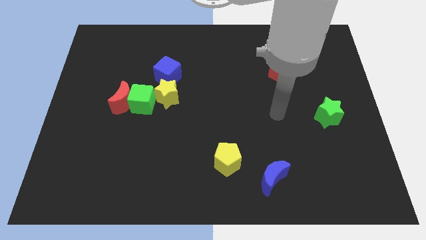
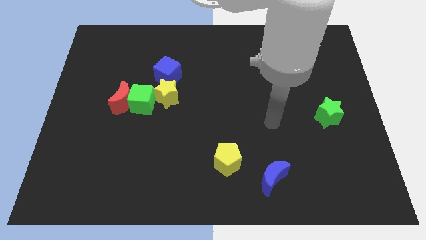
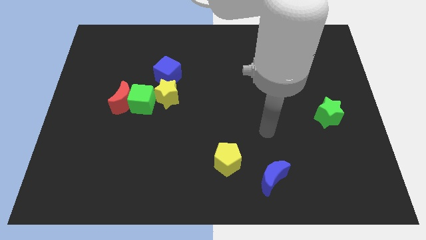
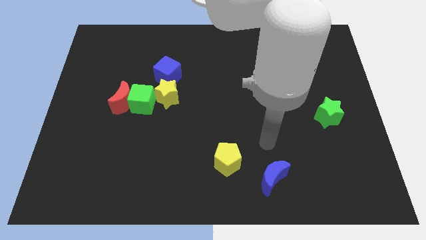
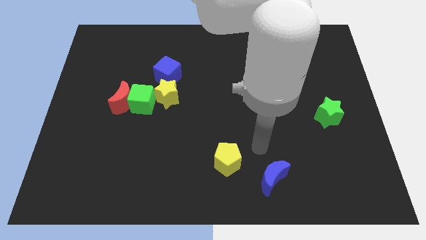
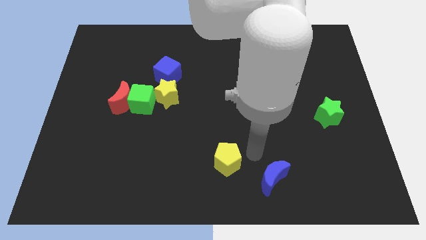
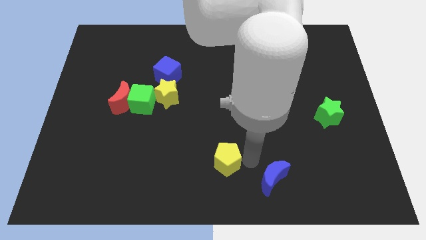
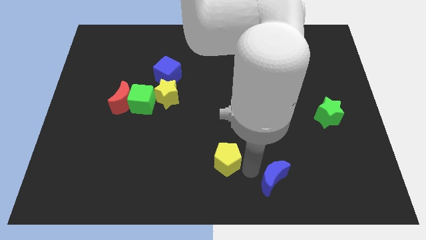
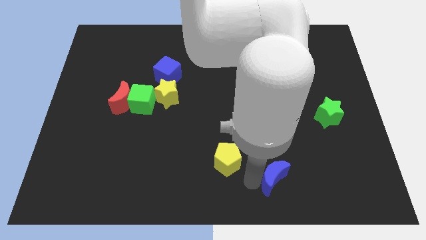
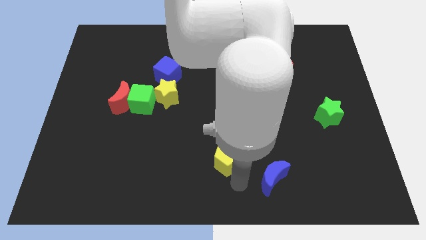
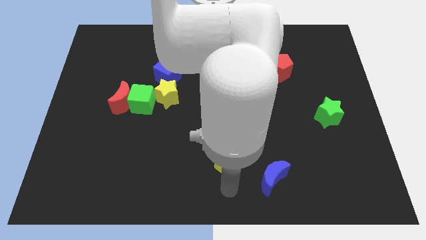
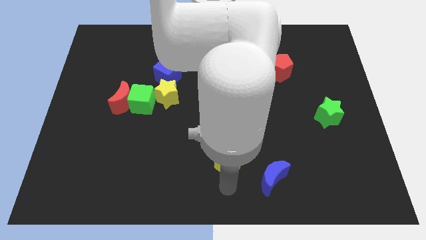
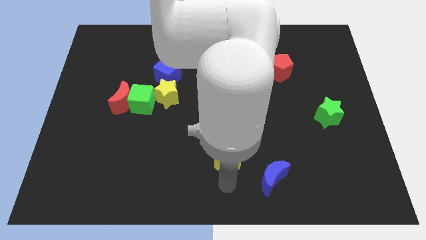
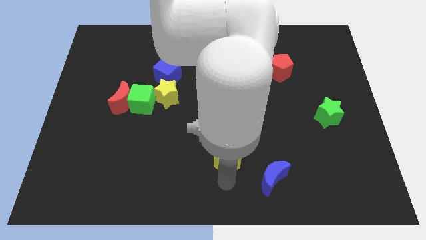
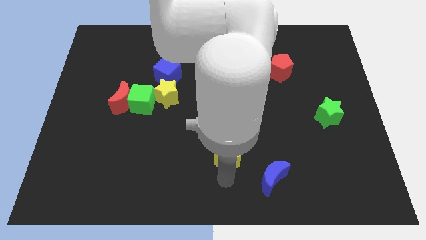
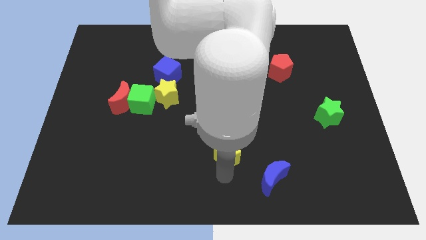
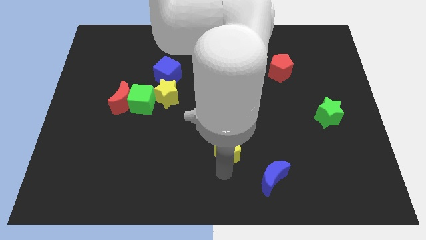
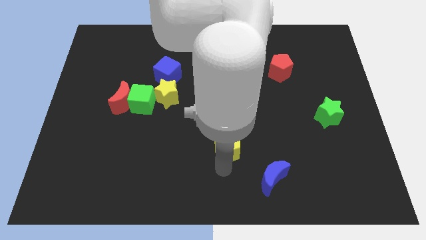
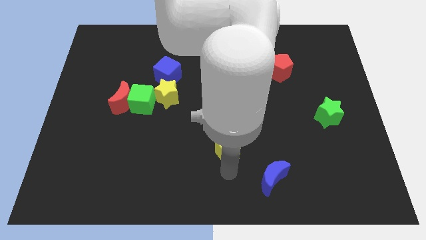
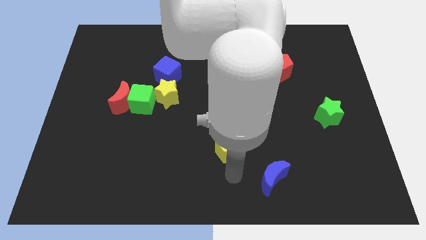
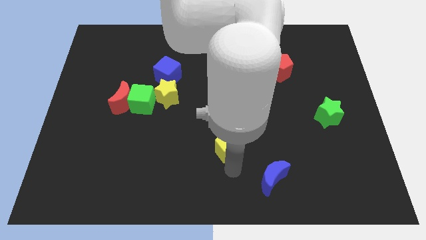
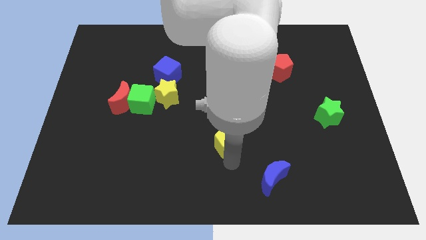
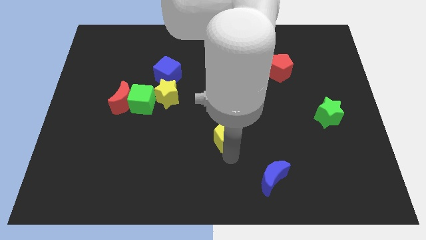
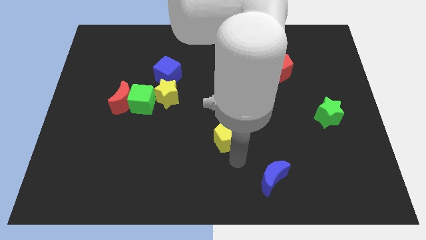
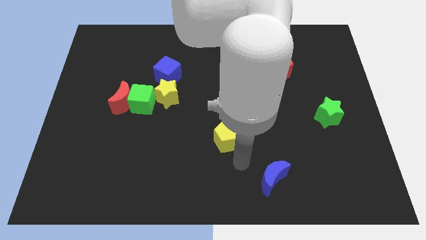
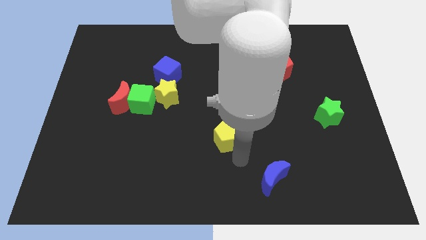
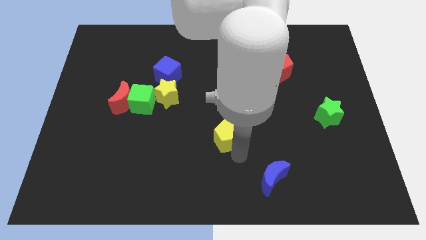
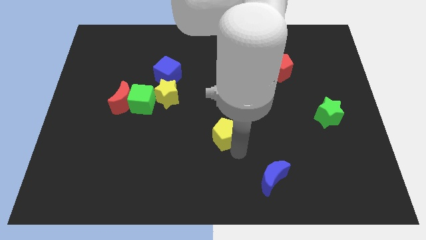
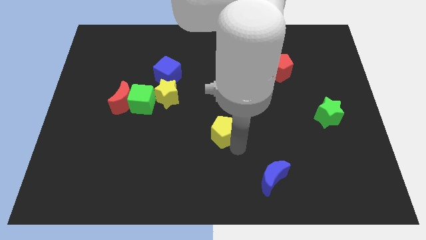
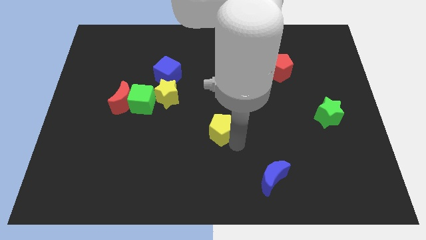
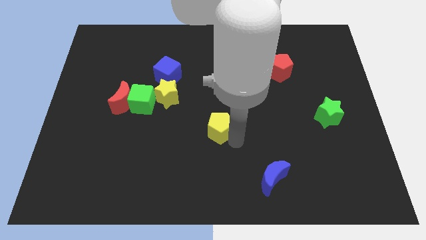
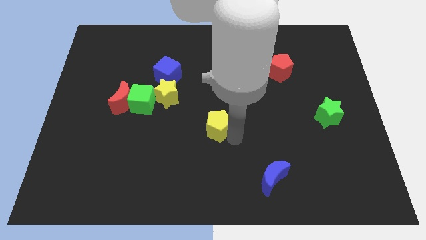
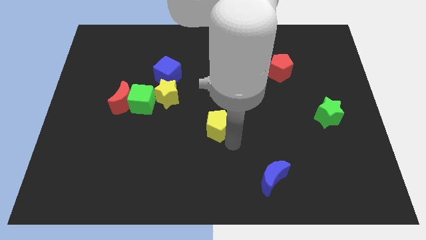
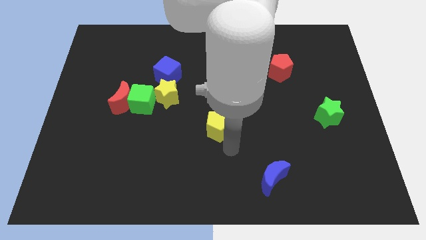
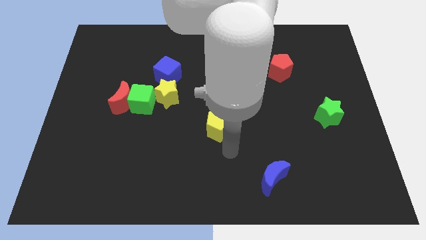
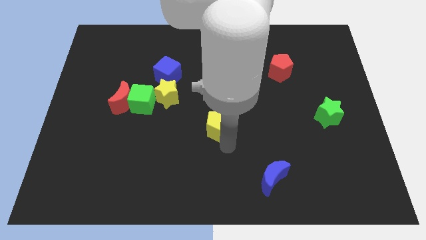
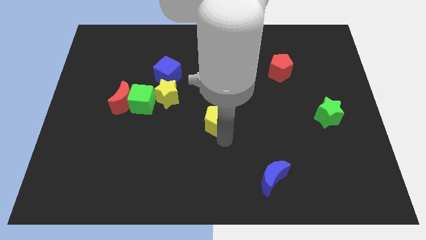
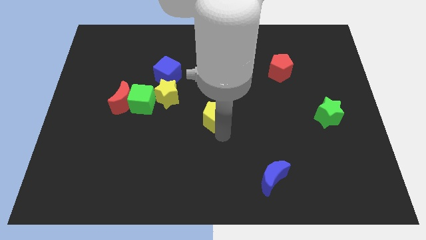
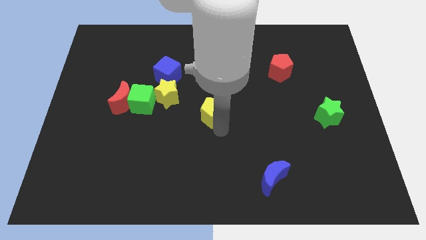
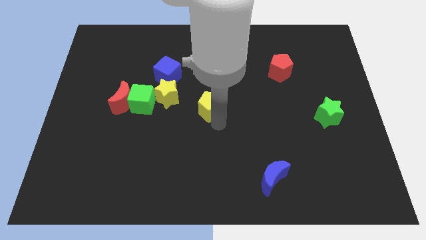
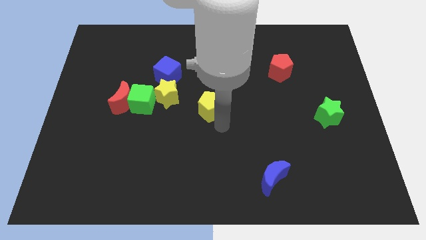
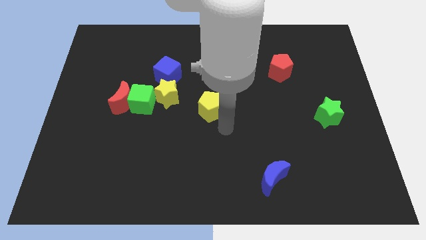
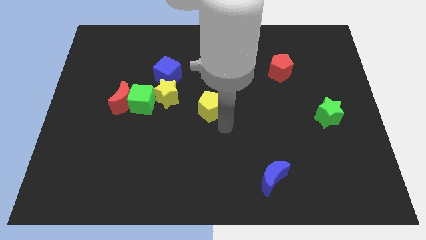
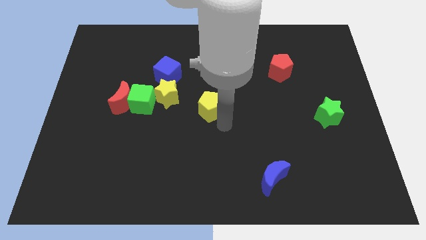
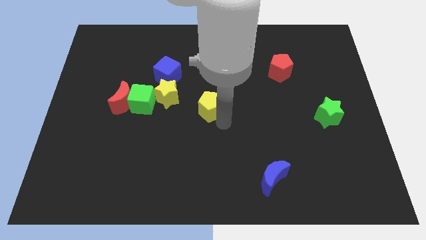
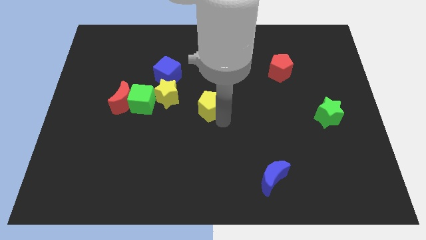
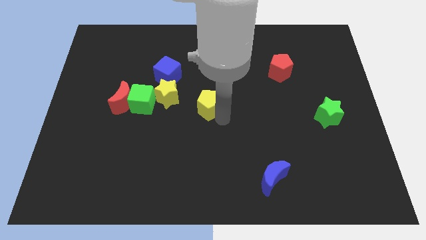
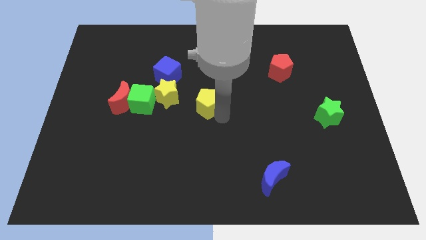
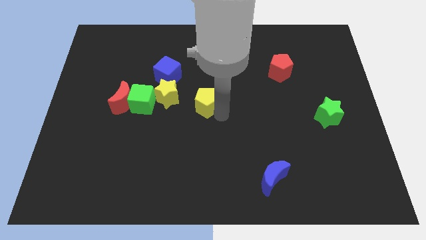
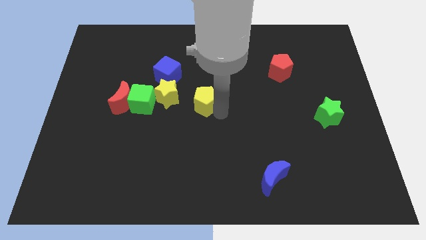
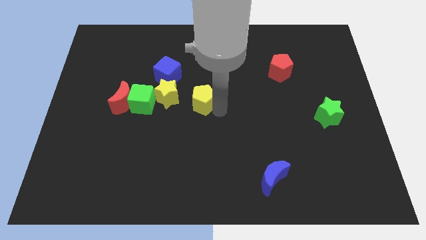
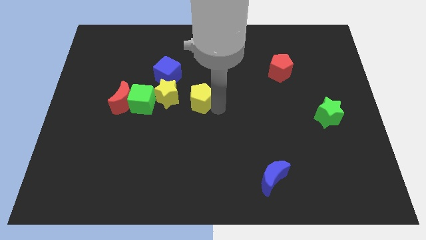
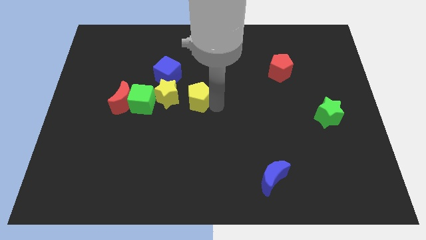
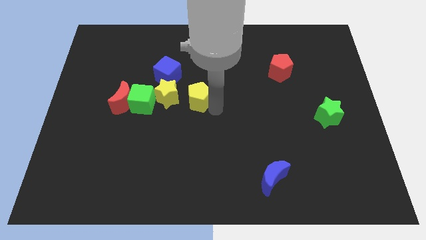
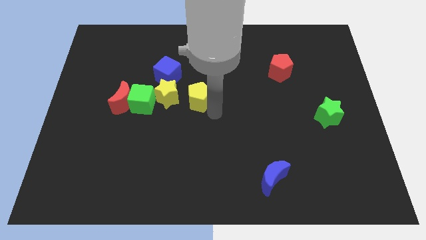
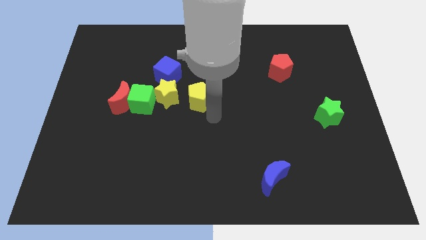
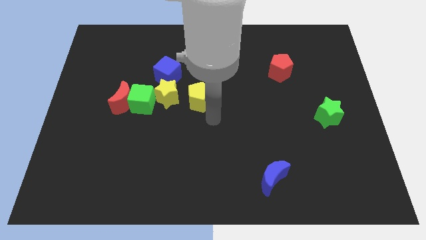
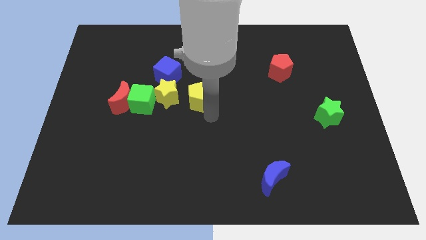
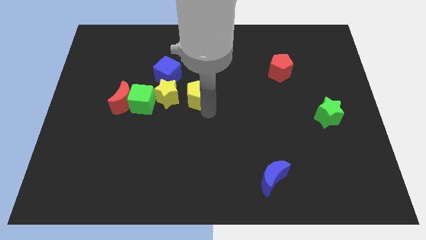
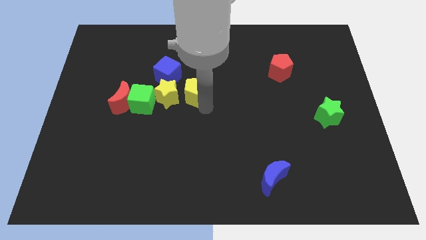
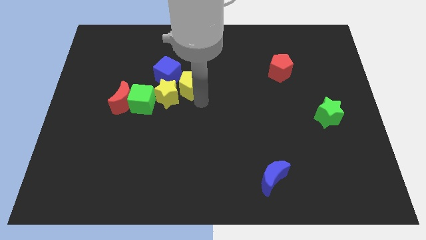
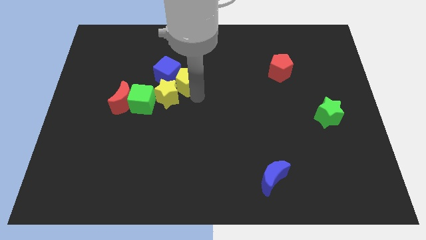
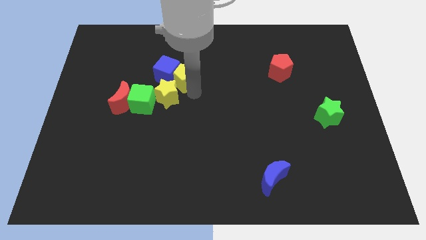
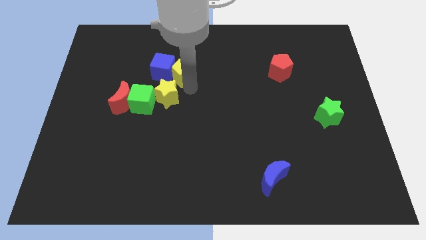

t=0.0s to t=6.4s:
slide the yellow pentagon up and left

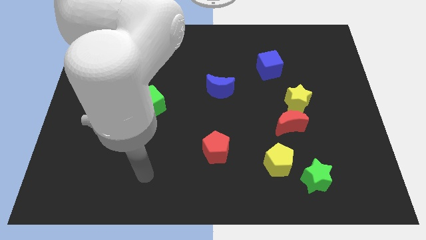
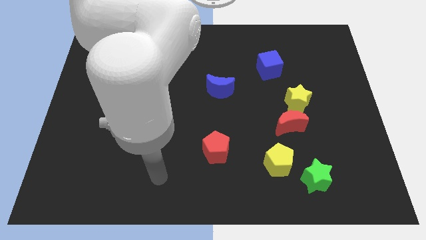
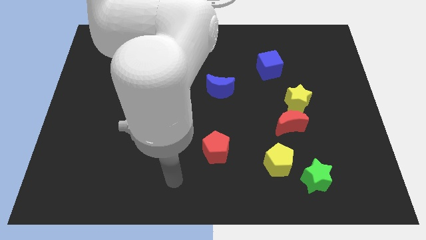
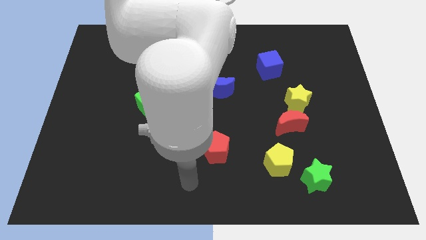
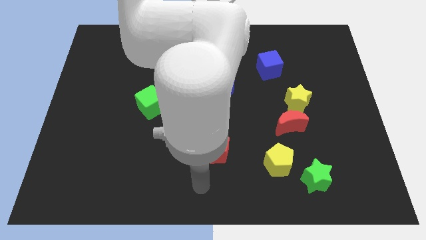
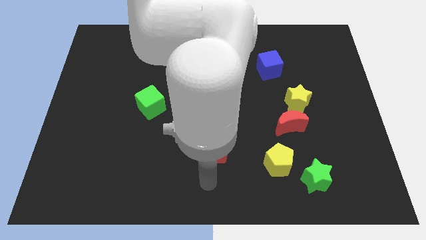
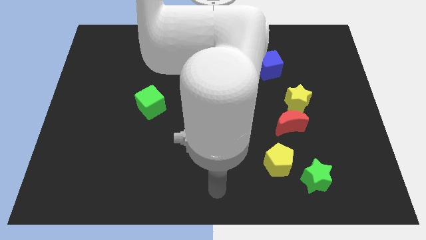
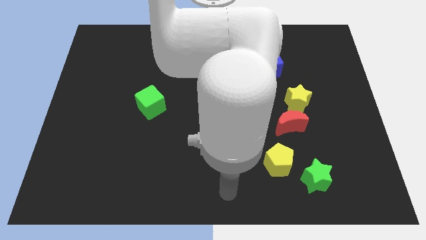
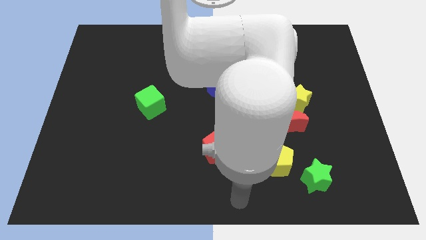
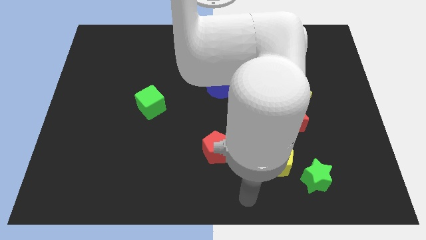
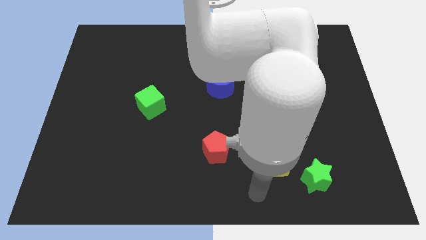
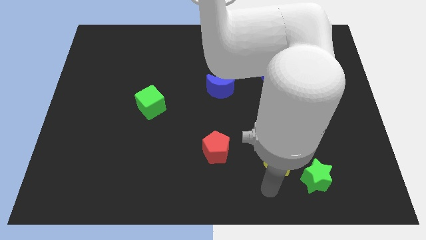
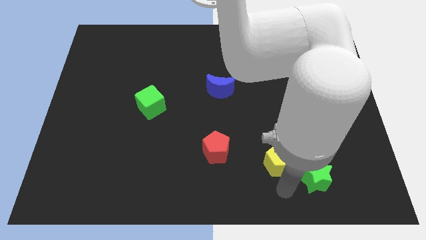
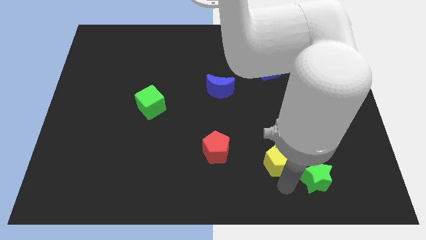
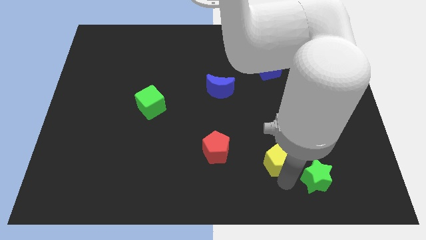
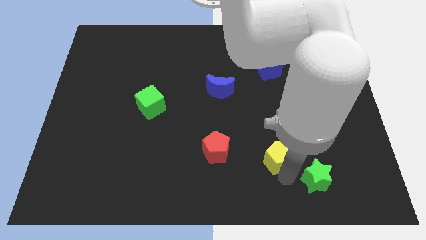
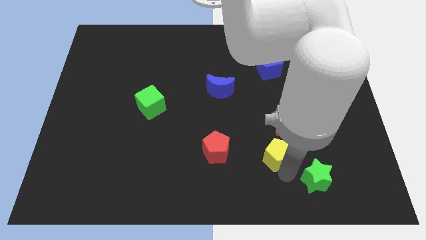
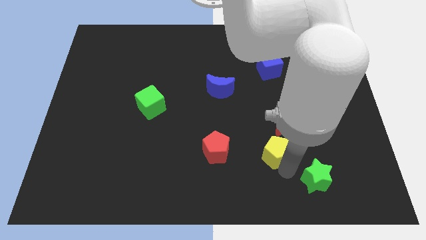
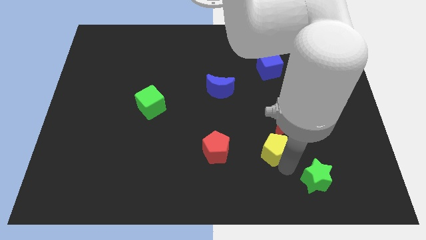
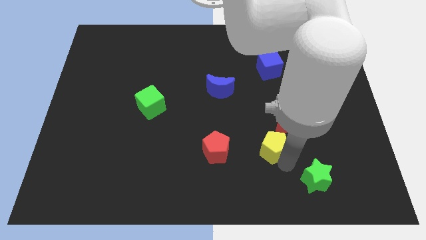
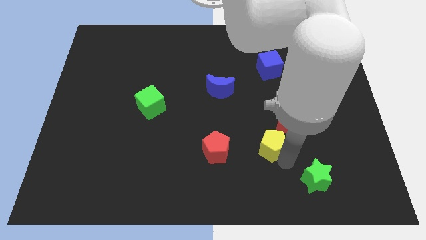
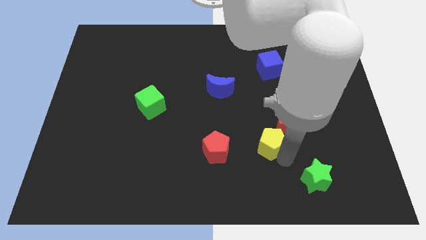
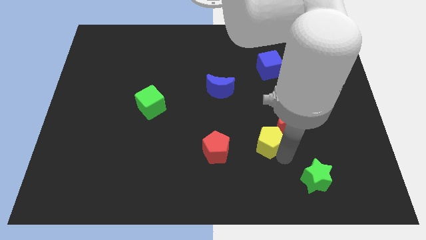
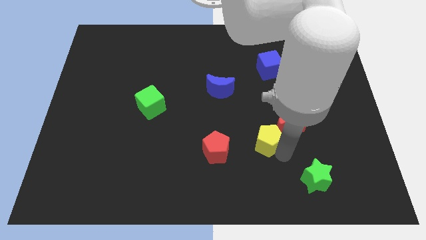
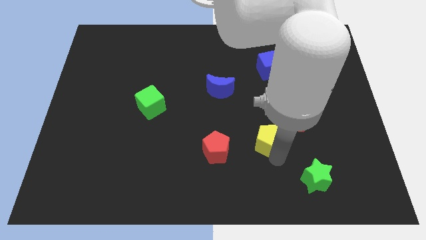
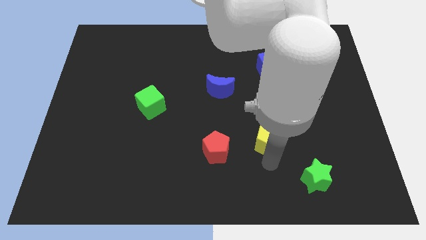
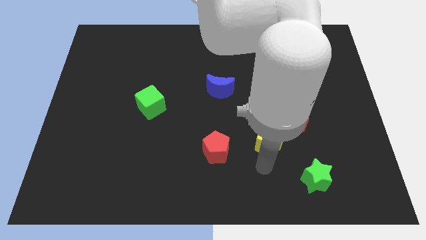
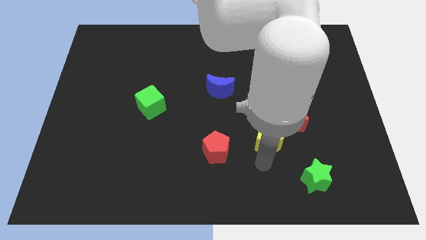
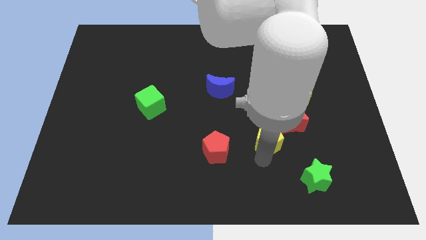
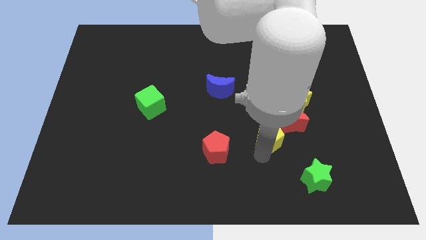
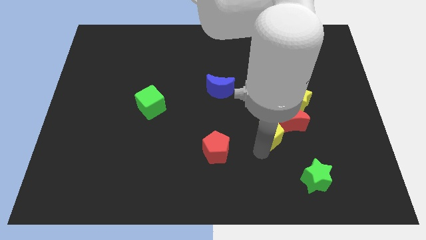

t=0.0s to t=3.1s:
slightly push the yellow pentagon upwards
